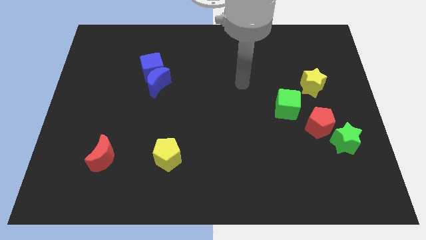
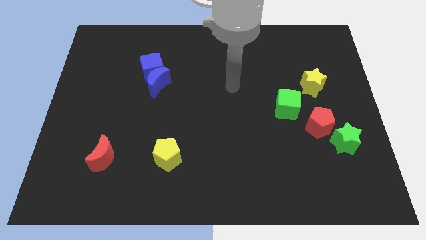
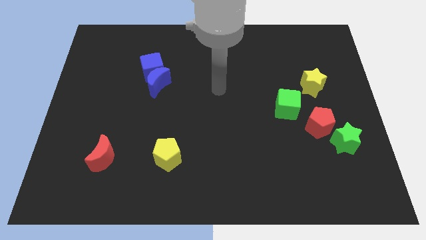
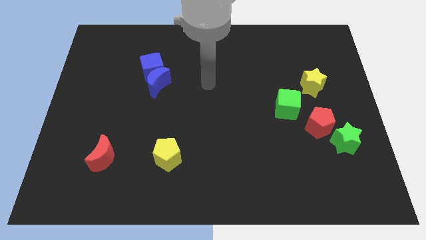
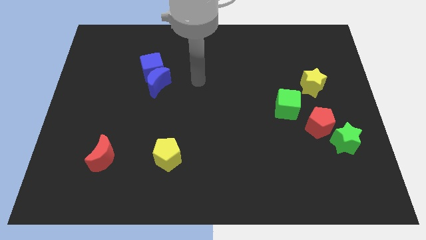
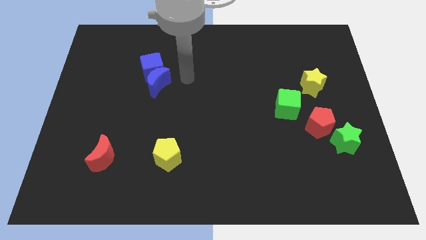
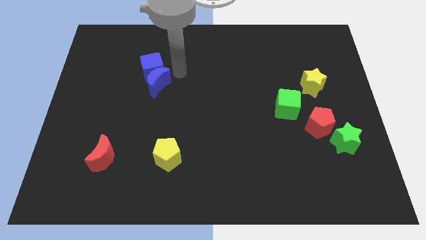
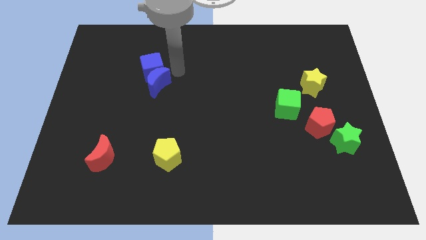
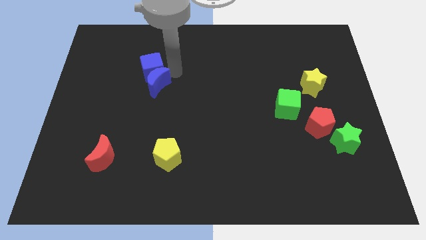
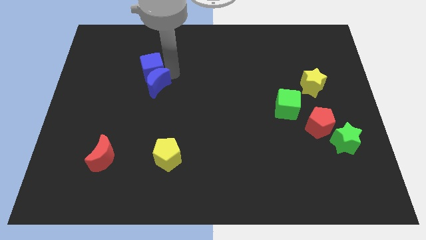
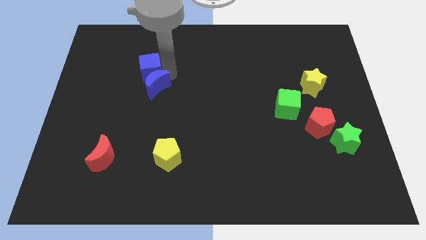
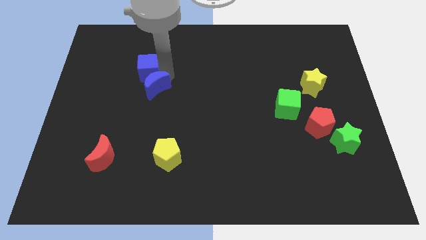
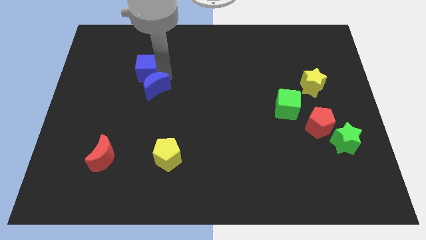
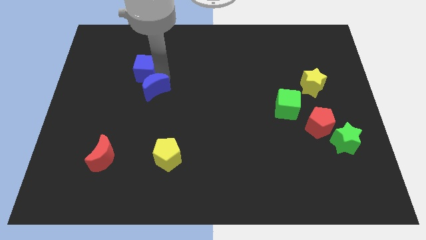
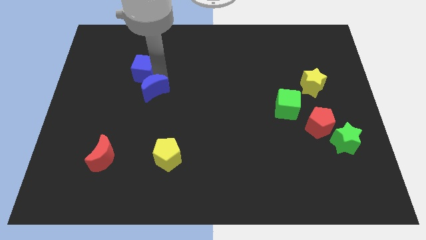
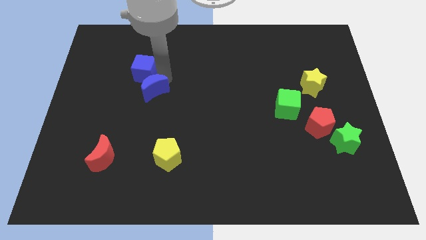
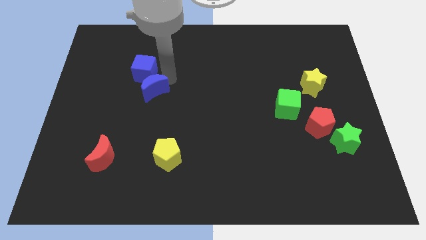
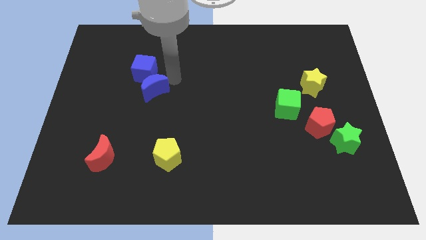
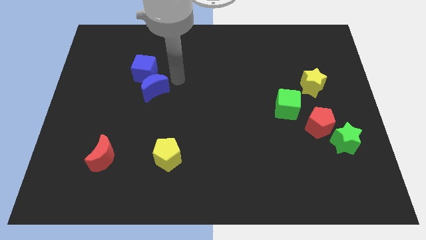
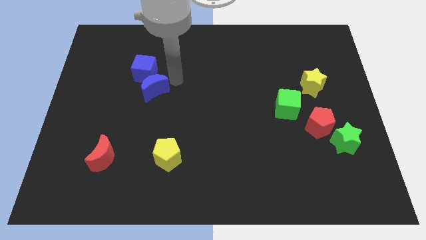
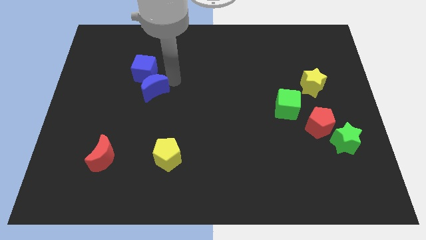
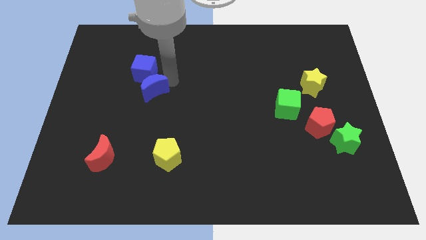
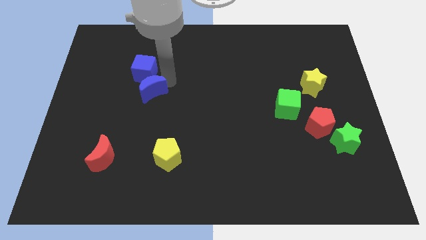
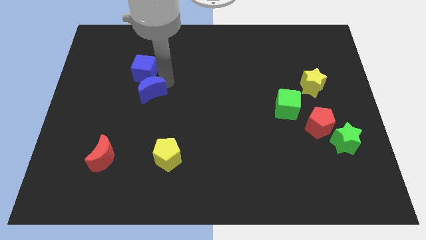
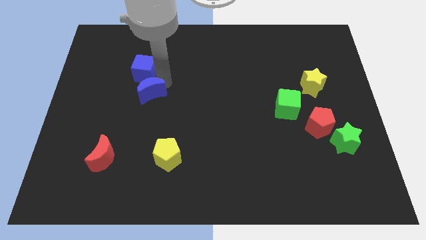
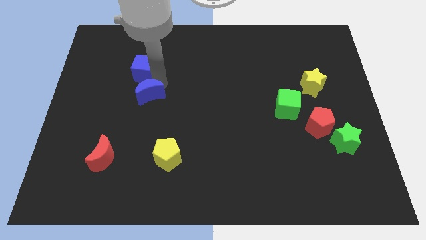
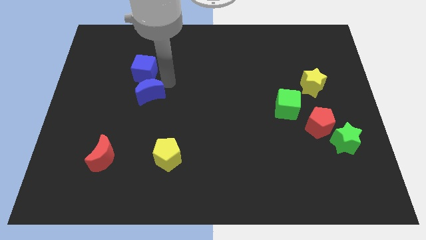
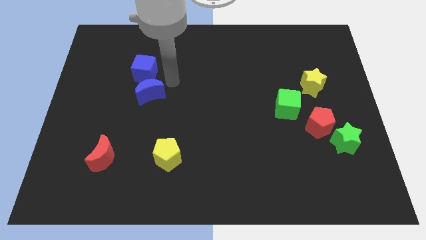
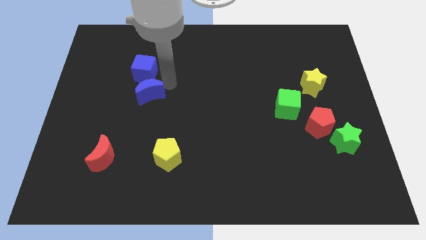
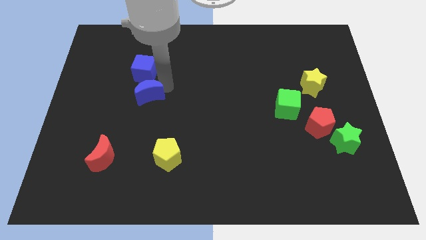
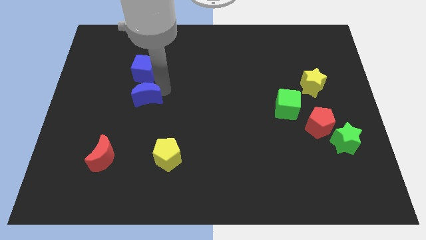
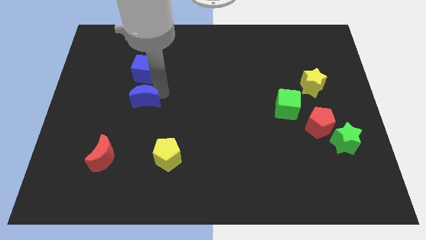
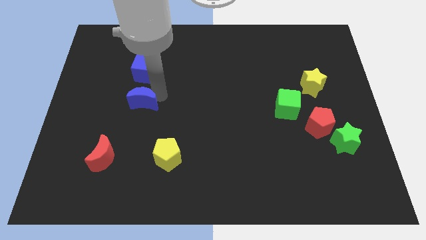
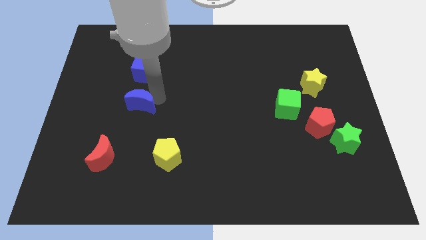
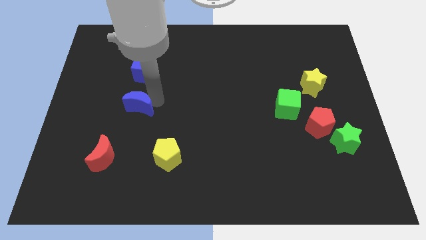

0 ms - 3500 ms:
push the blue moon down and to the left somewhat

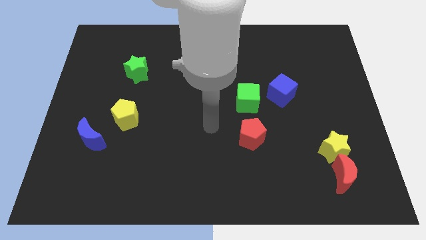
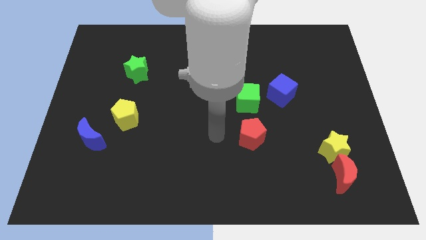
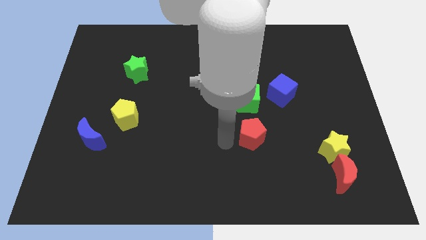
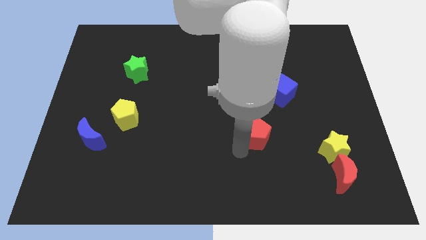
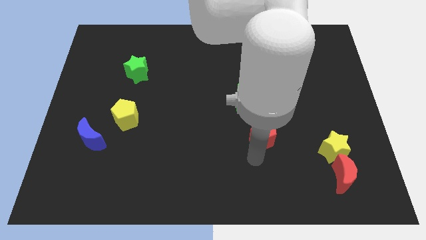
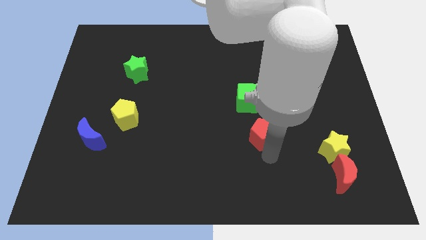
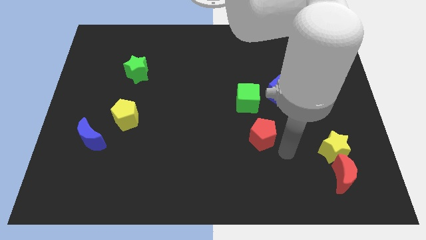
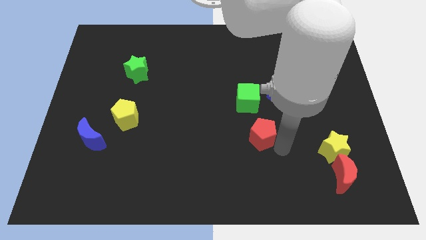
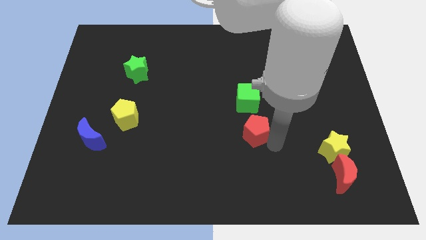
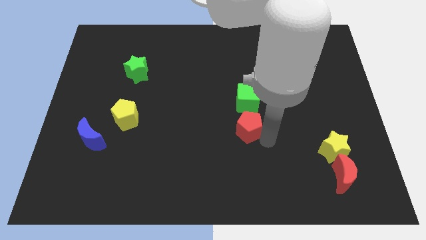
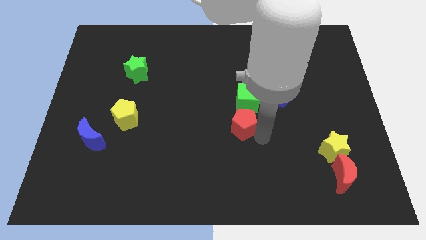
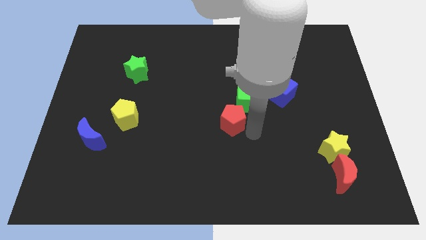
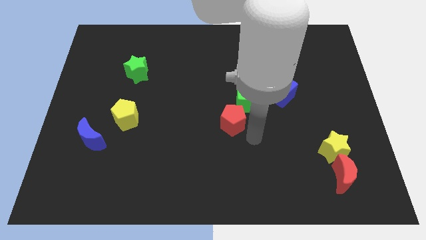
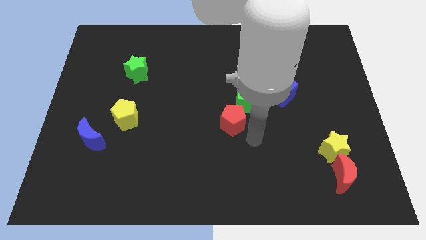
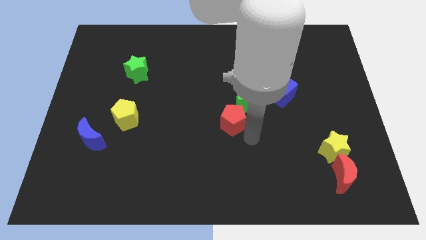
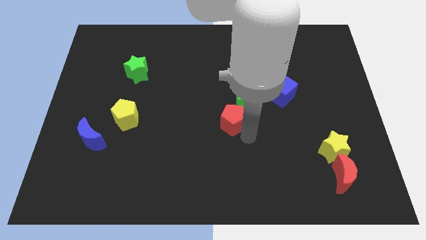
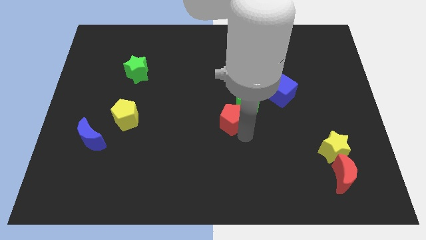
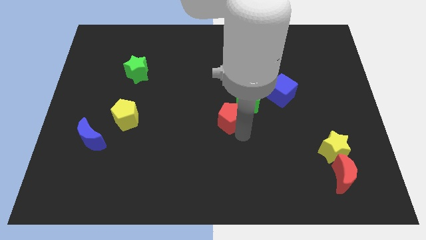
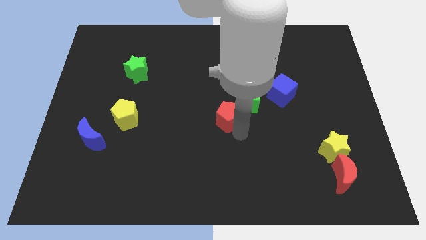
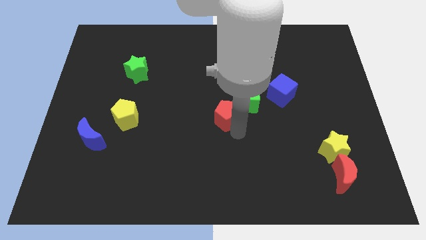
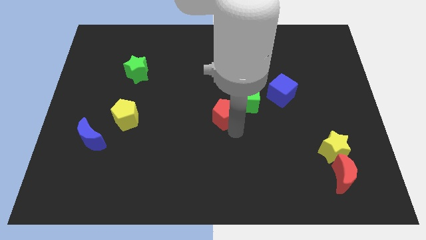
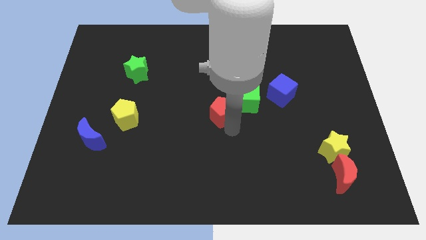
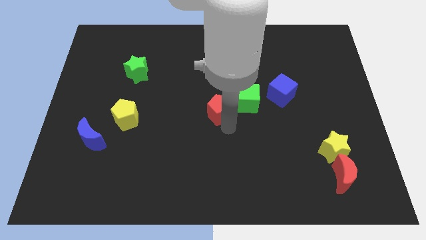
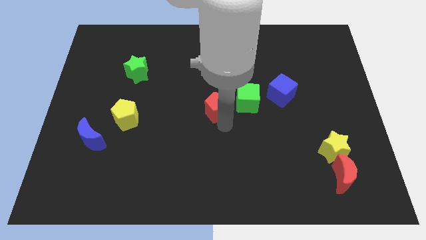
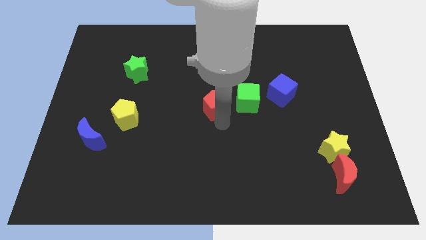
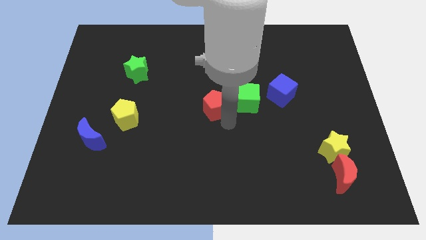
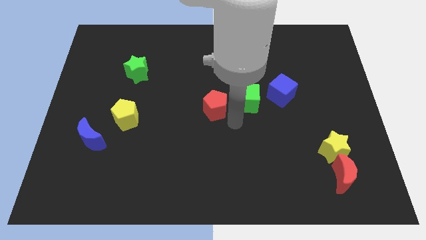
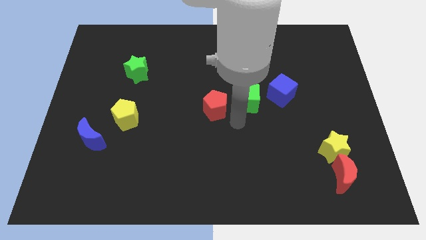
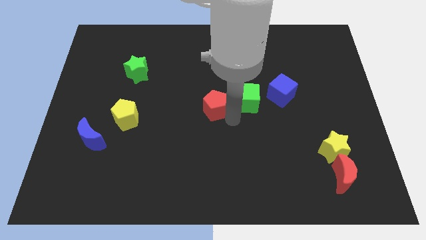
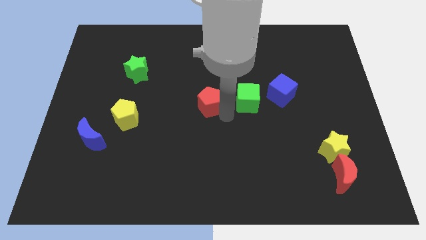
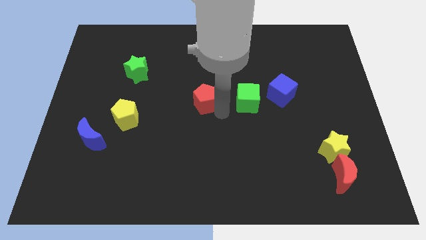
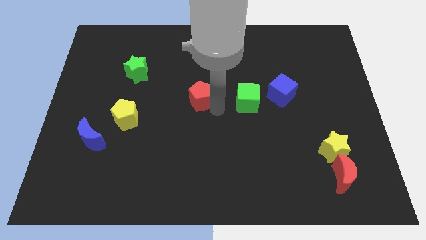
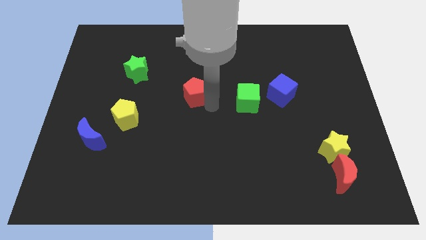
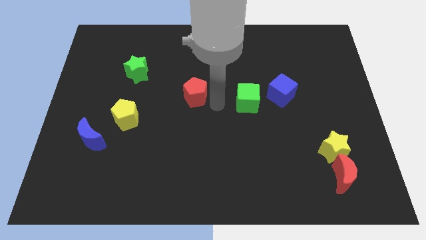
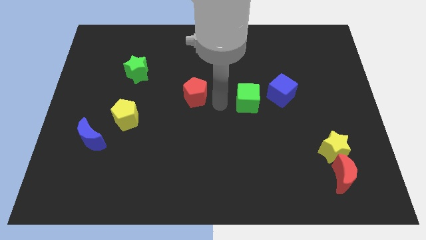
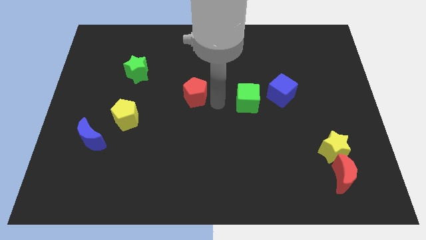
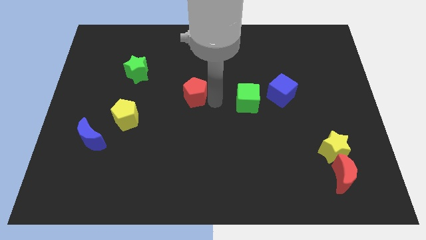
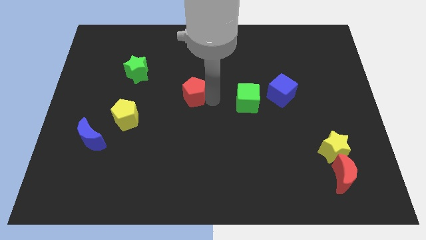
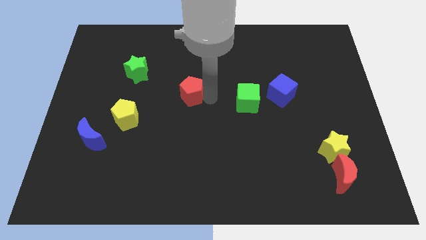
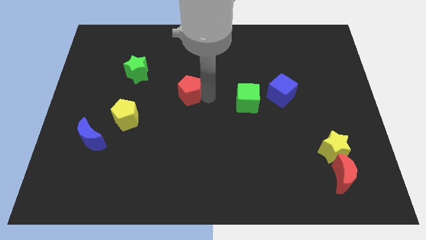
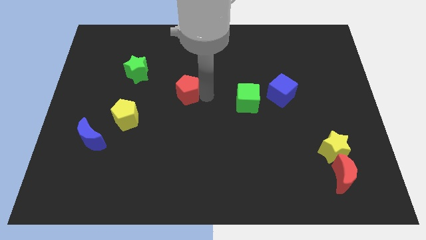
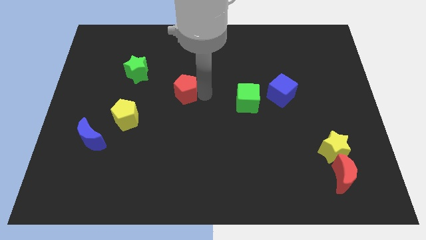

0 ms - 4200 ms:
slide the red pentagon diagonally upwards and left

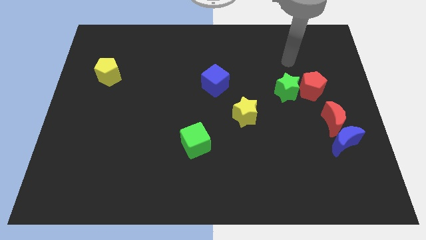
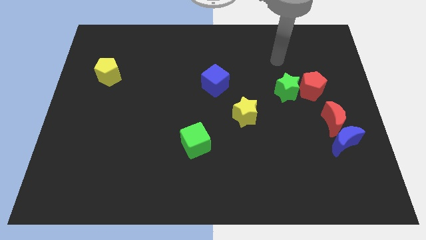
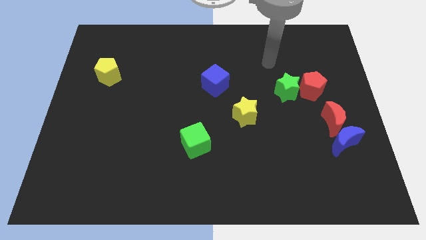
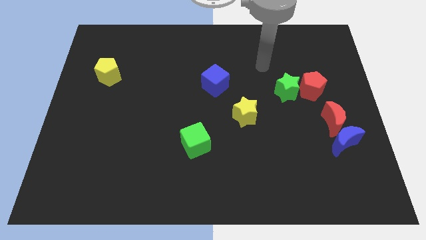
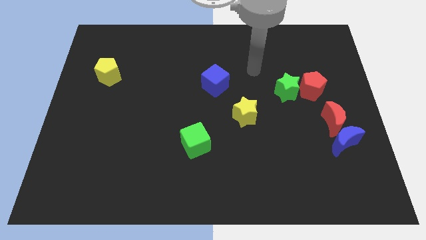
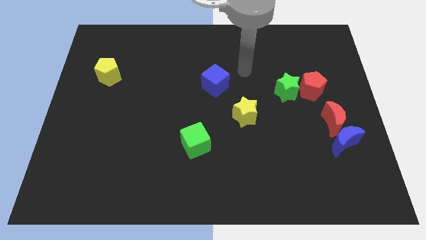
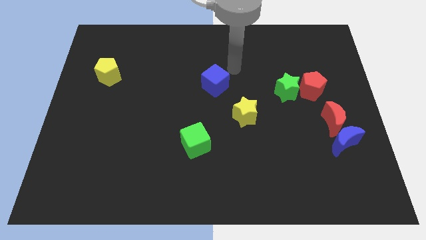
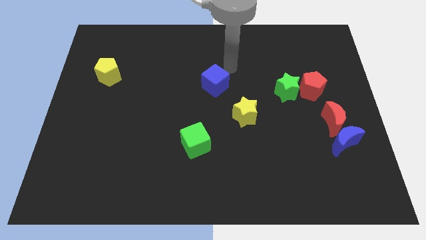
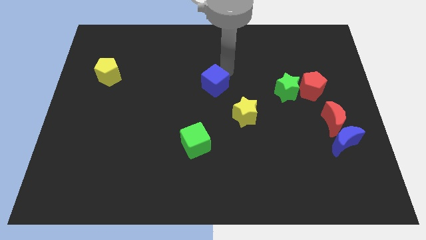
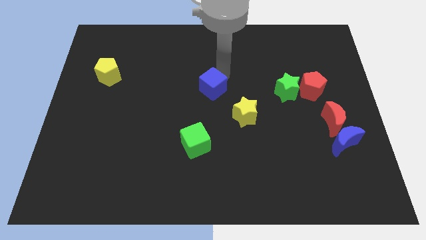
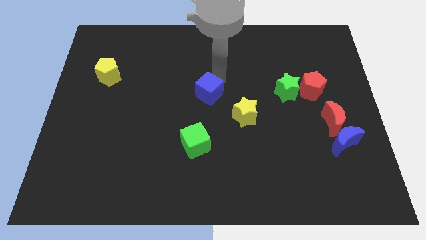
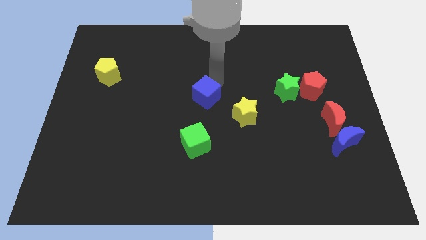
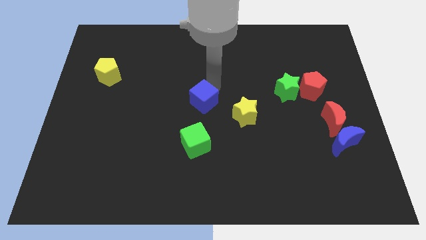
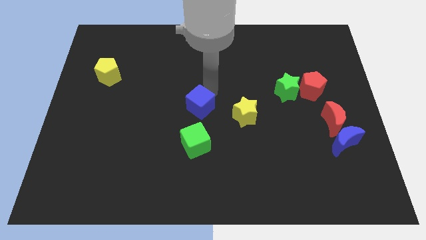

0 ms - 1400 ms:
slide the blue cube a little bit diagonally down and to the left
